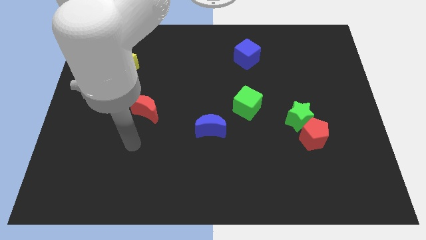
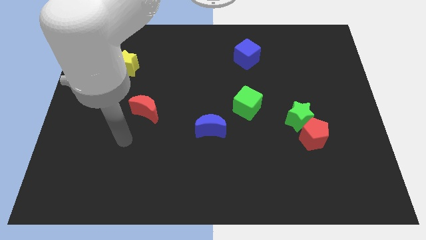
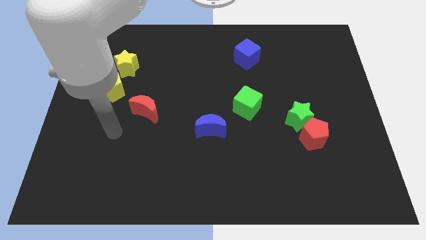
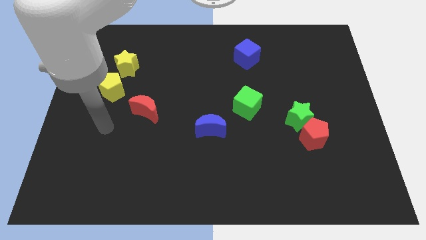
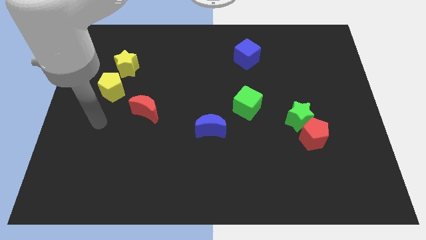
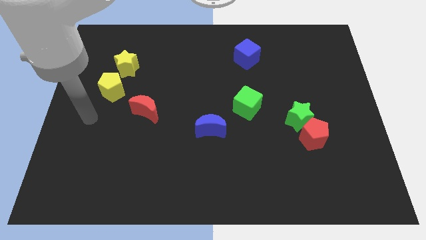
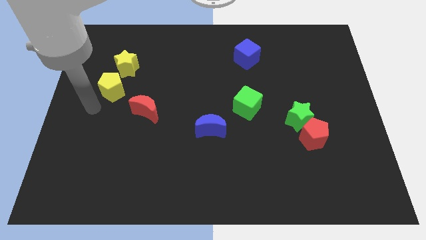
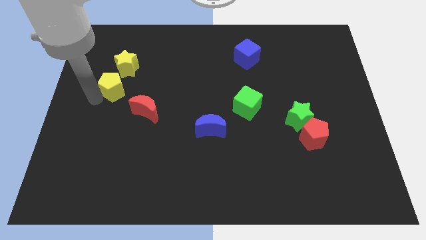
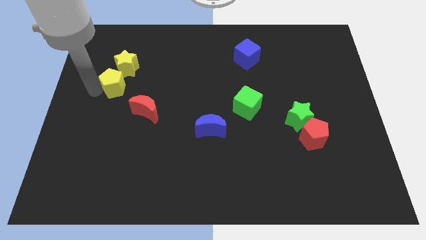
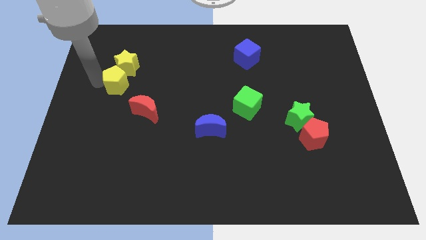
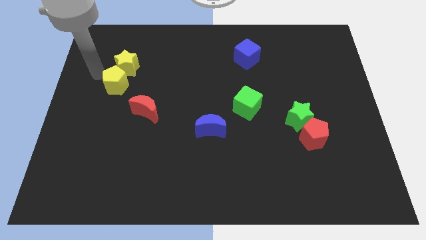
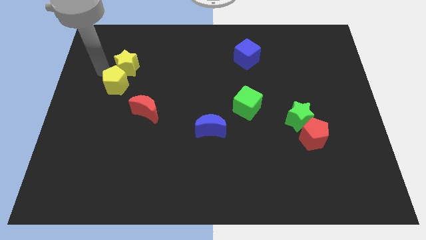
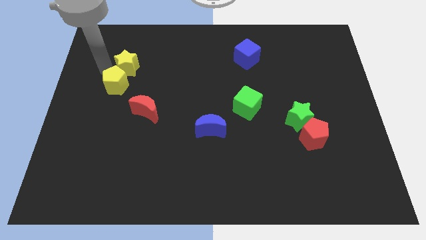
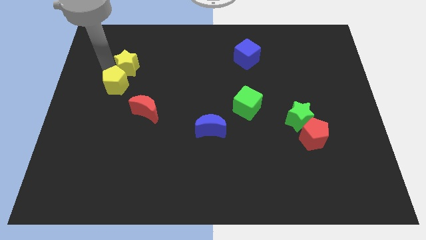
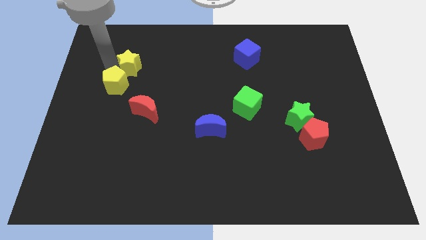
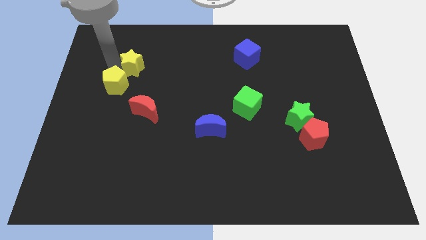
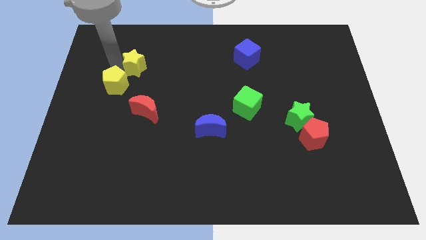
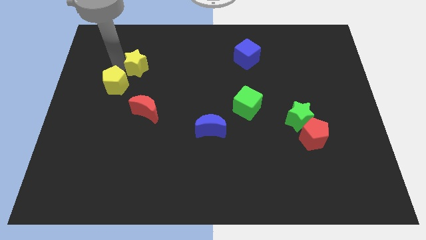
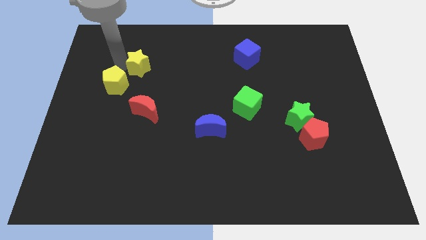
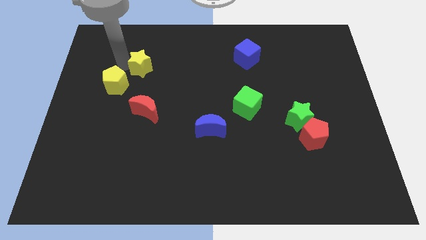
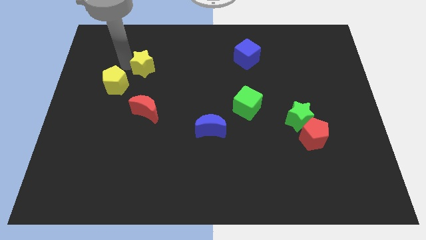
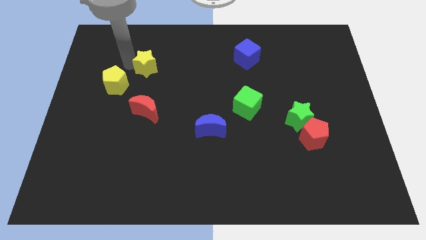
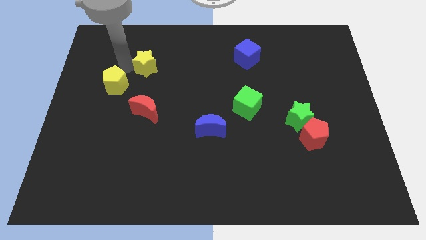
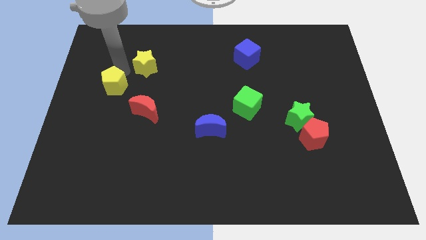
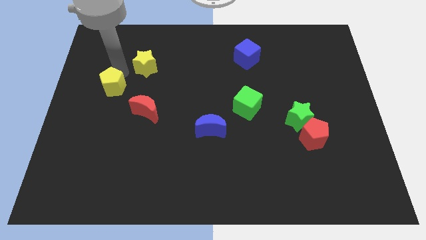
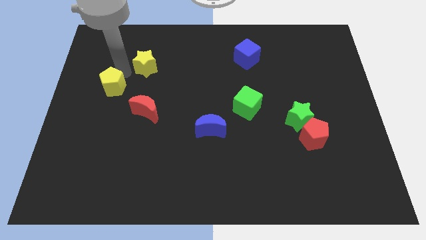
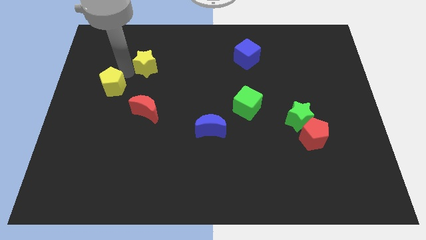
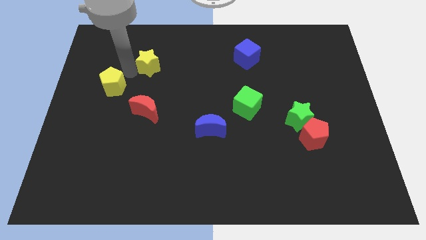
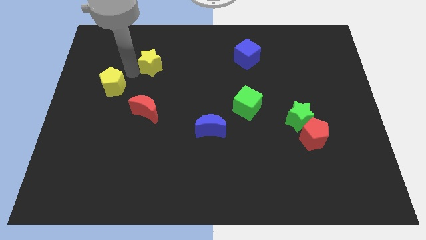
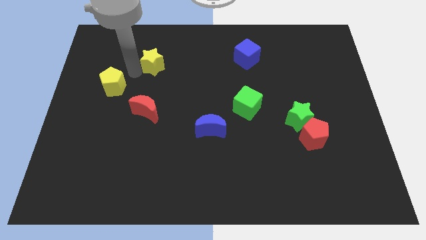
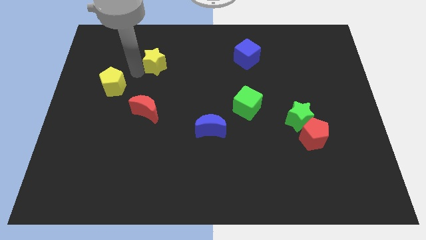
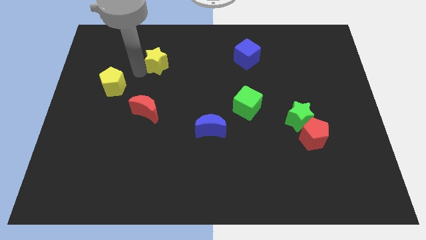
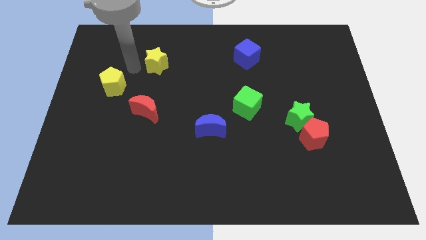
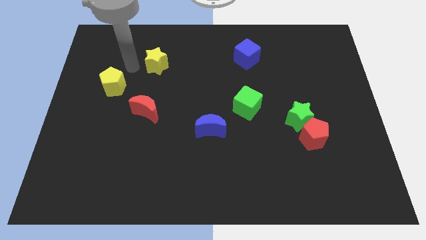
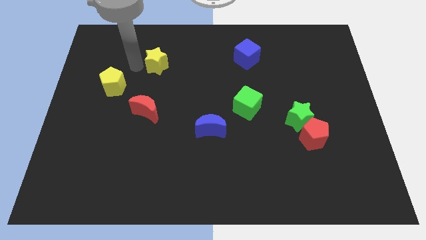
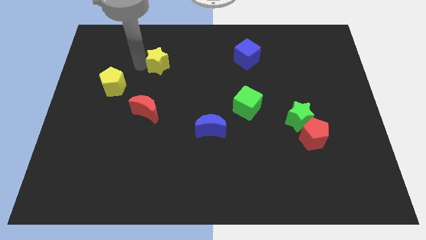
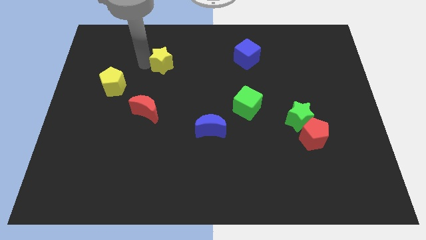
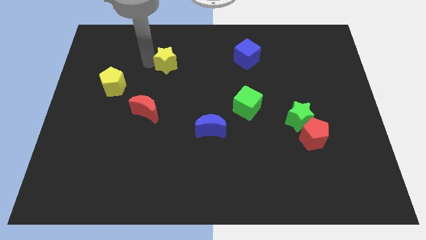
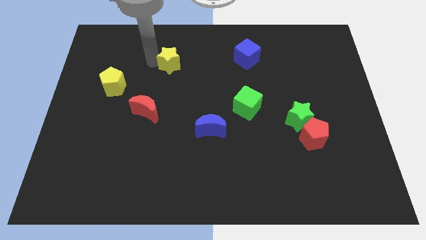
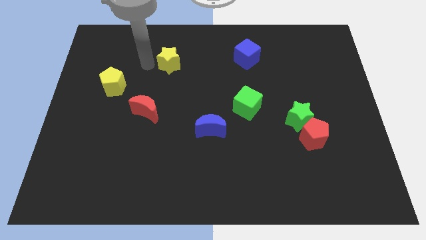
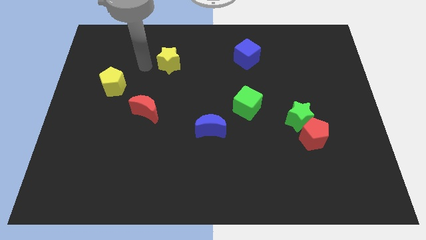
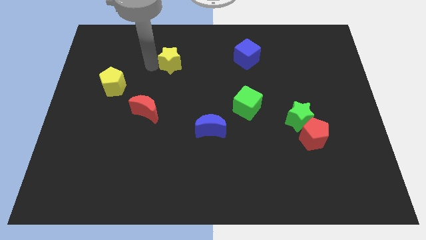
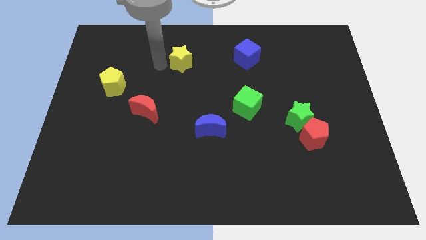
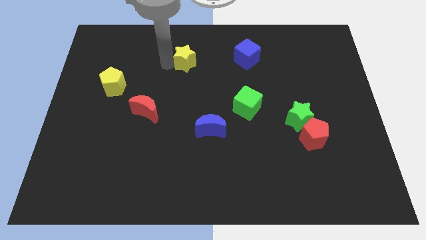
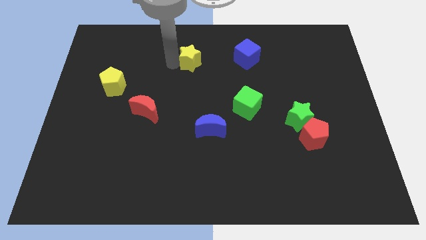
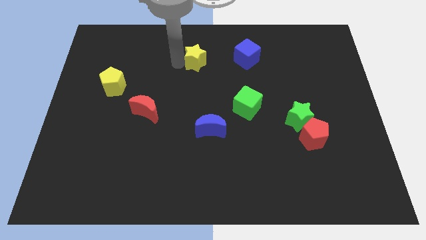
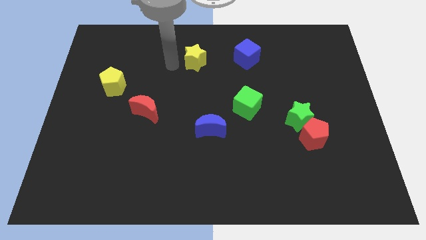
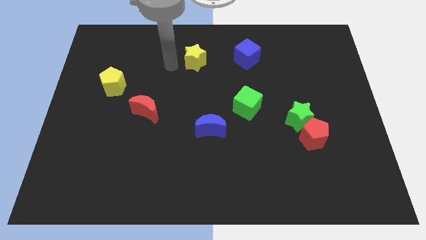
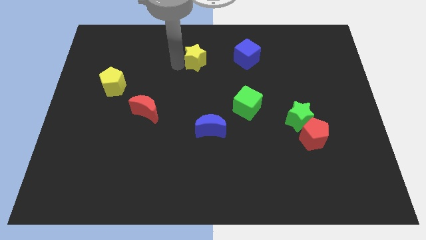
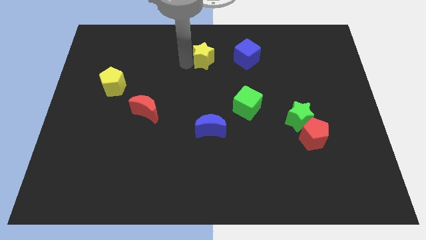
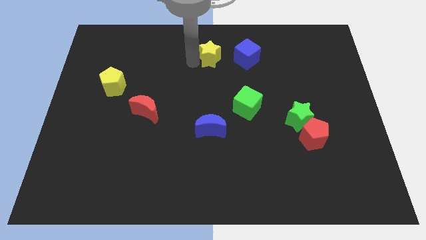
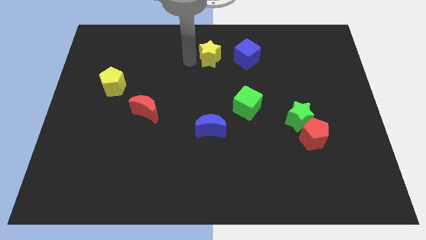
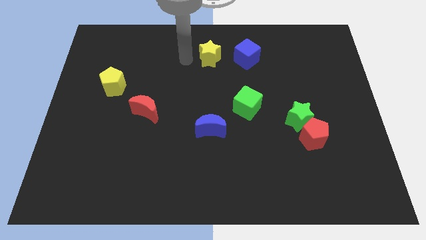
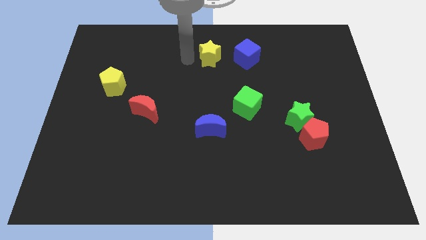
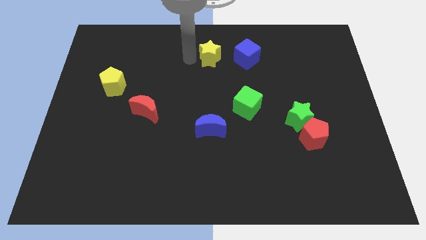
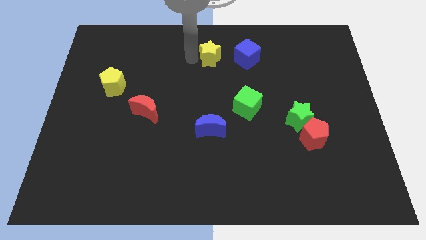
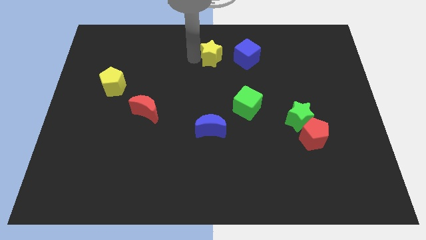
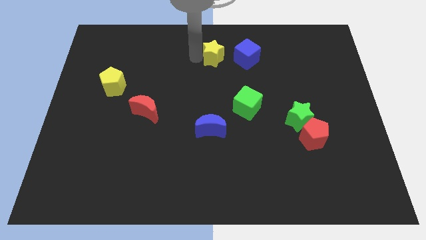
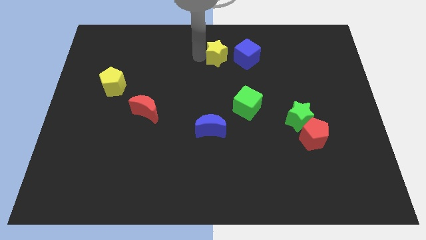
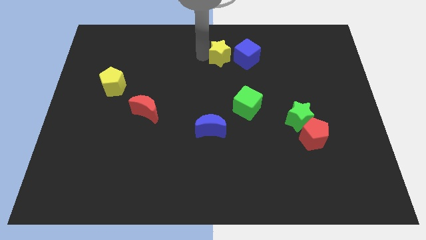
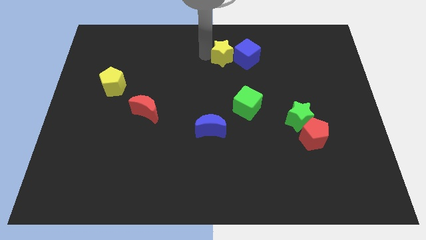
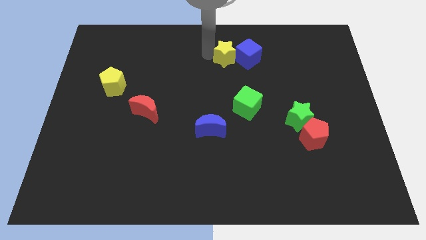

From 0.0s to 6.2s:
put the yellow star to the blue cube

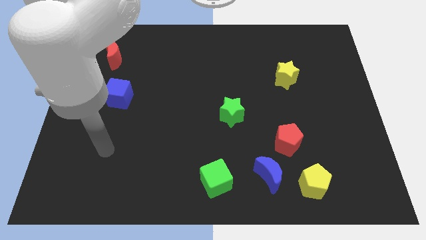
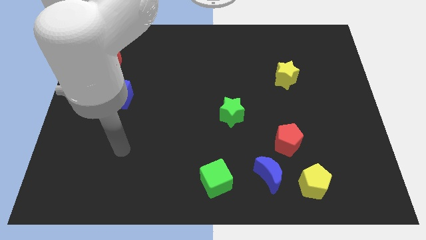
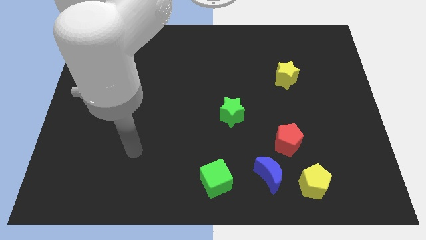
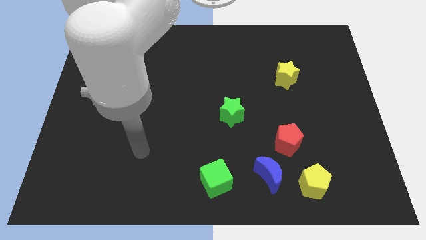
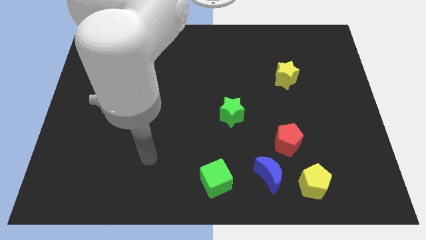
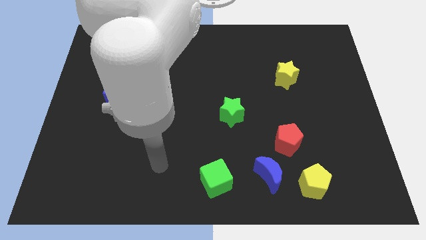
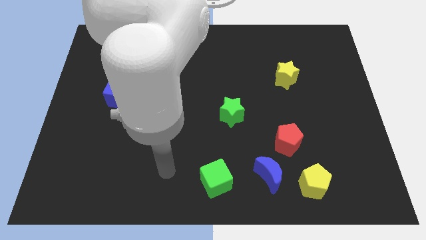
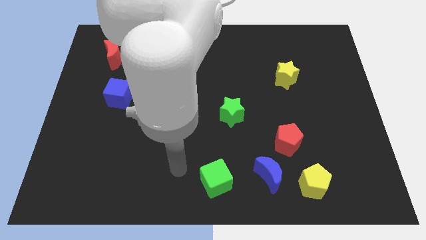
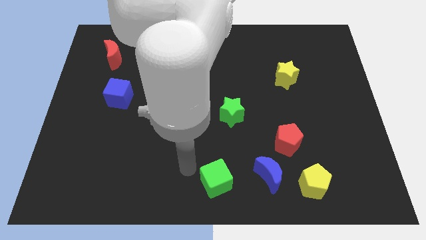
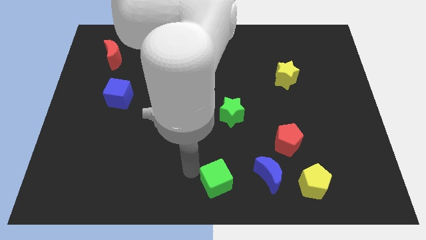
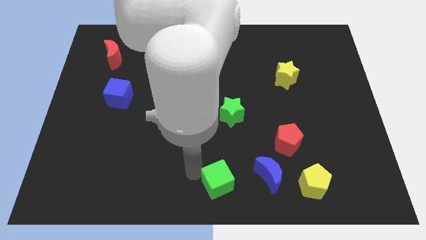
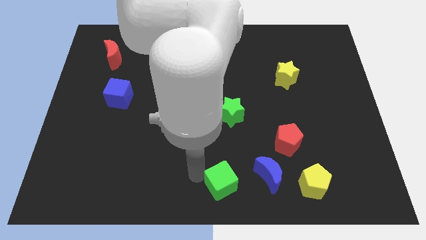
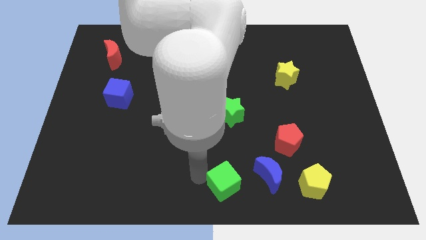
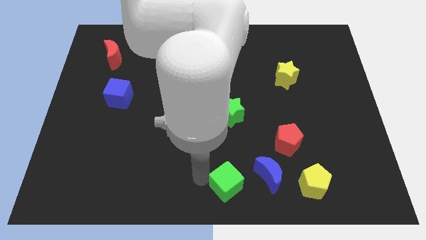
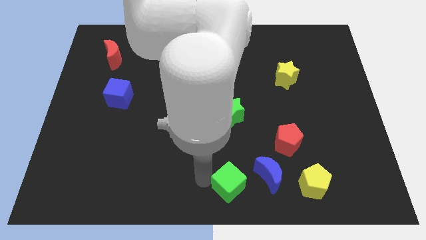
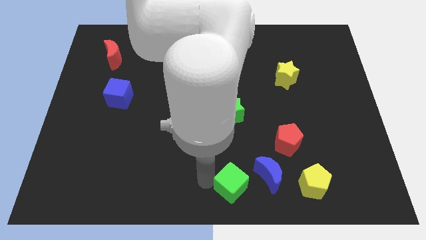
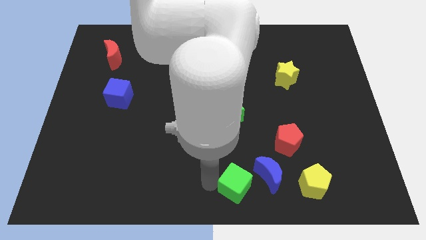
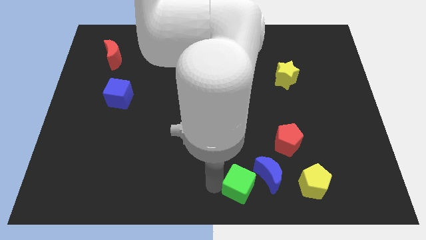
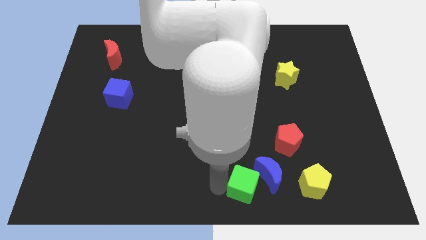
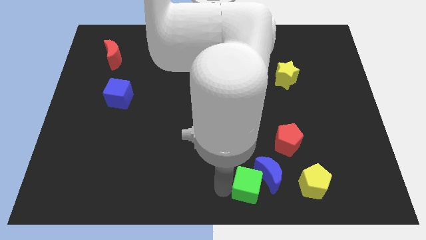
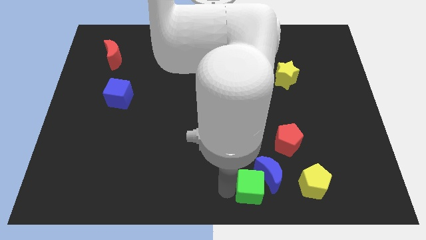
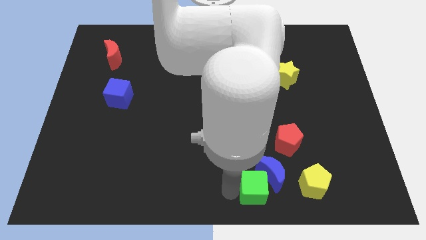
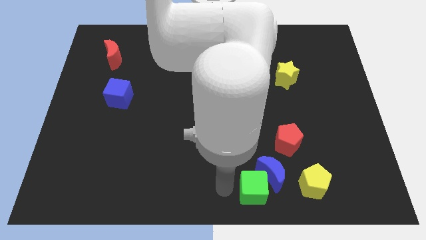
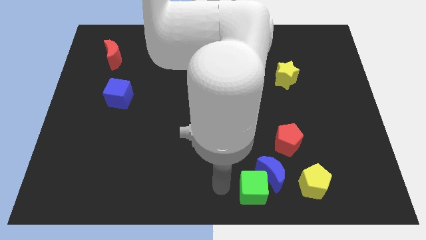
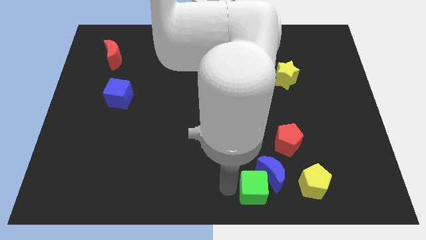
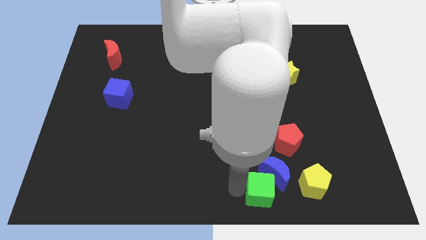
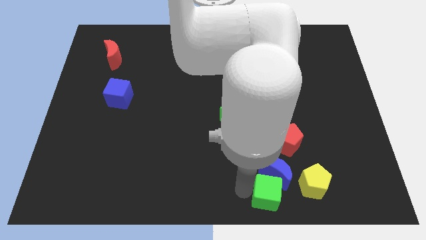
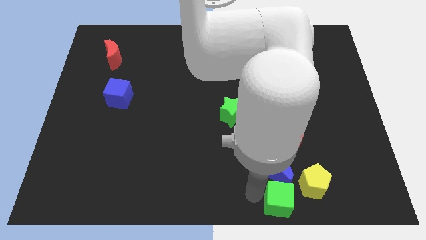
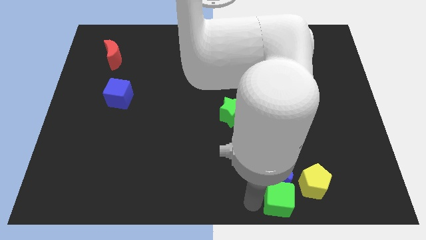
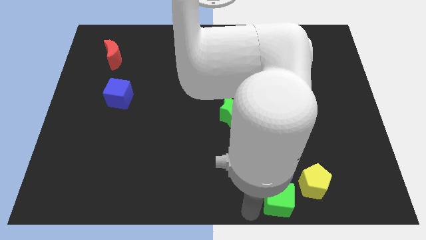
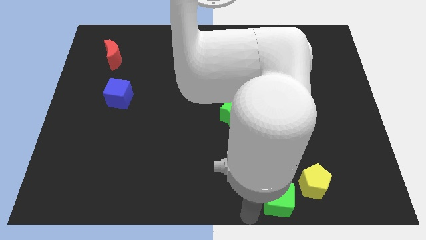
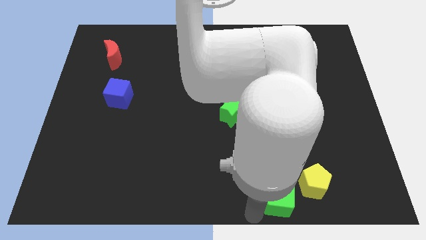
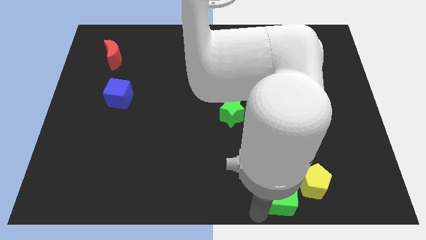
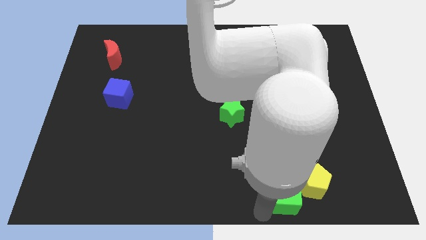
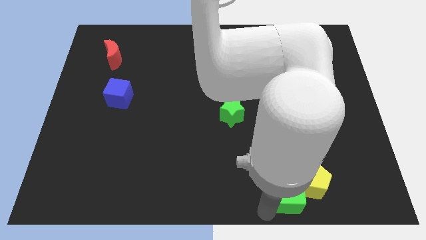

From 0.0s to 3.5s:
push the green cube next to the yellow pentagon
